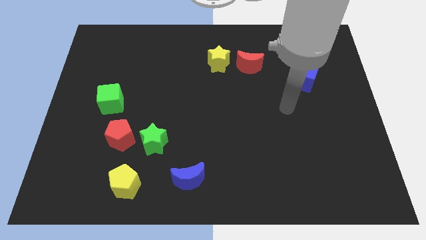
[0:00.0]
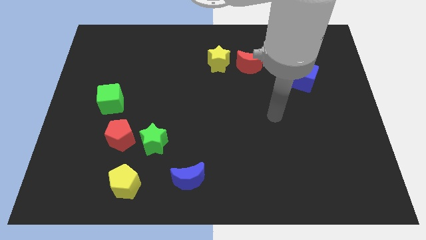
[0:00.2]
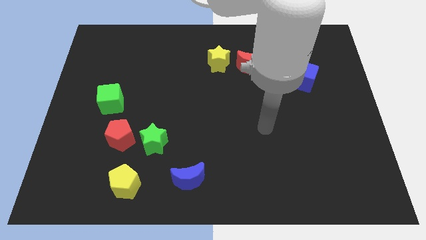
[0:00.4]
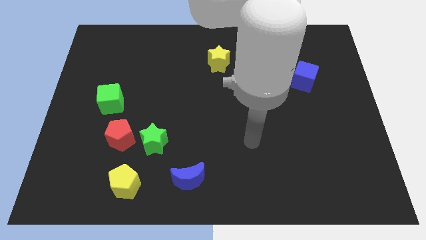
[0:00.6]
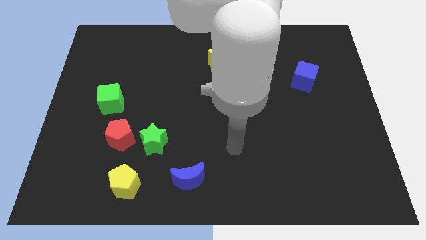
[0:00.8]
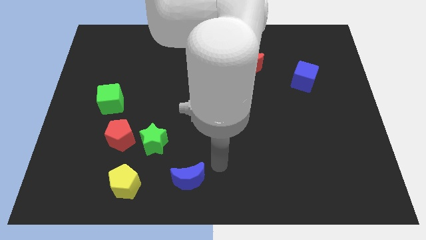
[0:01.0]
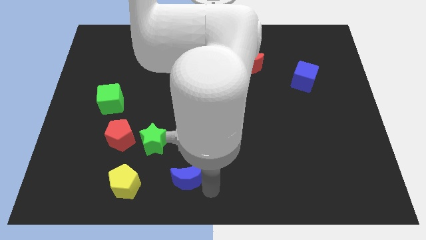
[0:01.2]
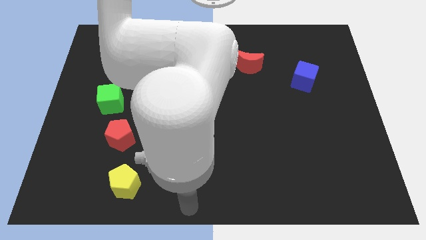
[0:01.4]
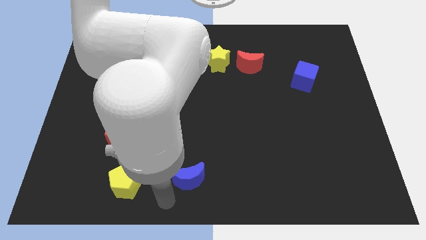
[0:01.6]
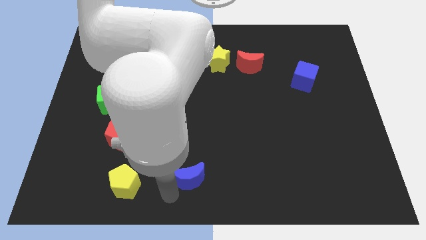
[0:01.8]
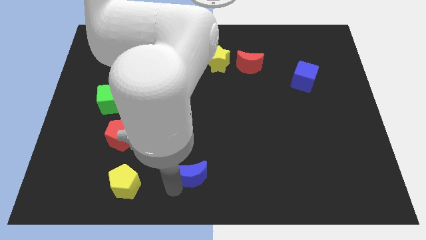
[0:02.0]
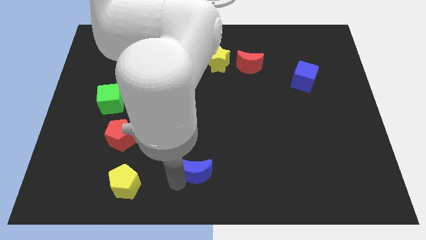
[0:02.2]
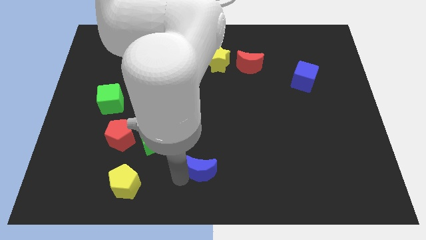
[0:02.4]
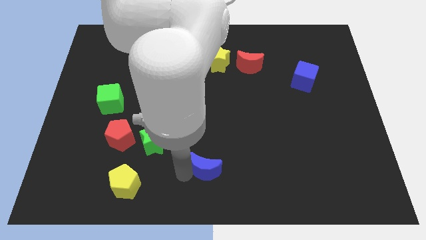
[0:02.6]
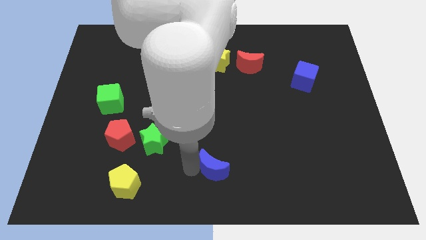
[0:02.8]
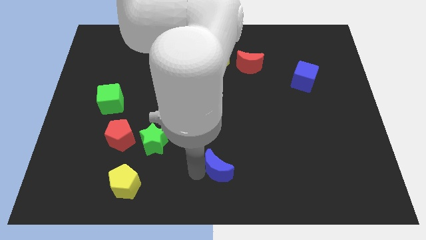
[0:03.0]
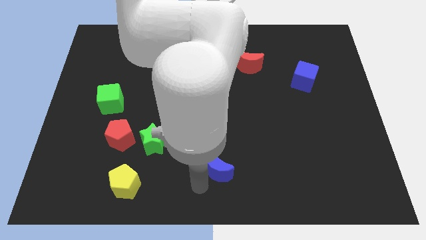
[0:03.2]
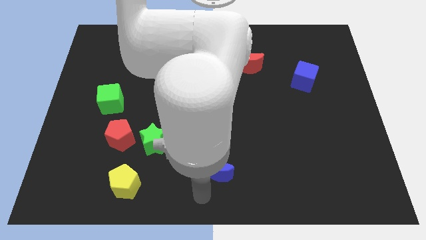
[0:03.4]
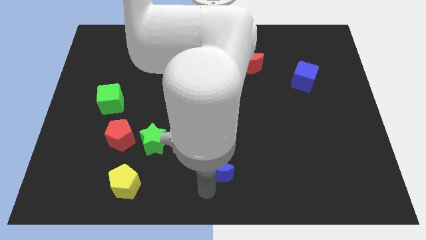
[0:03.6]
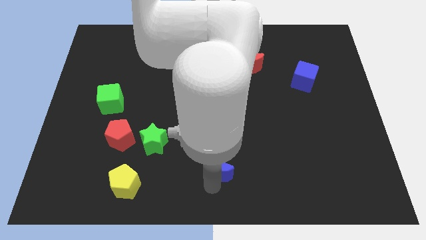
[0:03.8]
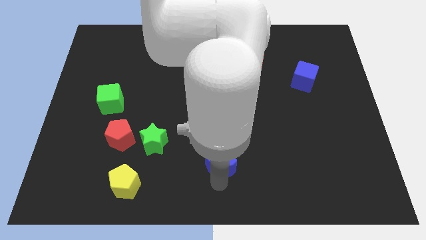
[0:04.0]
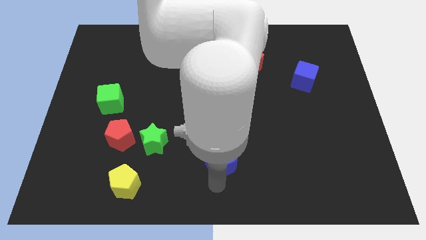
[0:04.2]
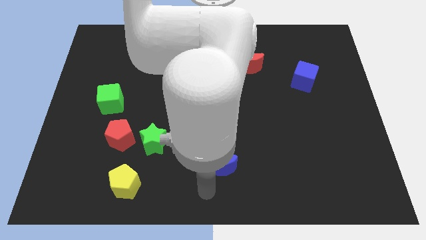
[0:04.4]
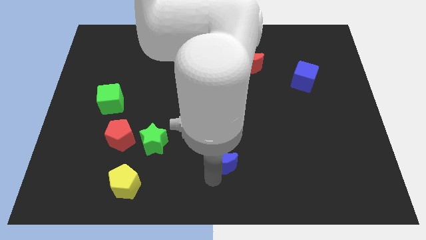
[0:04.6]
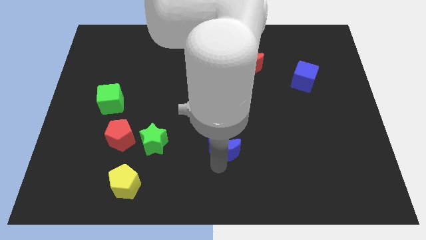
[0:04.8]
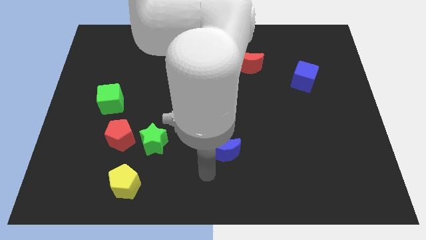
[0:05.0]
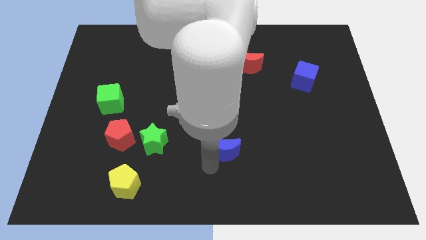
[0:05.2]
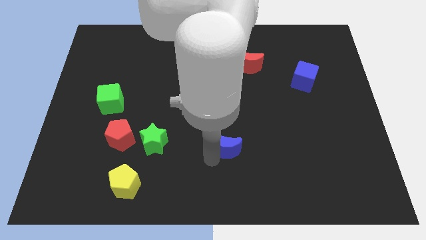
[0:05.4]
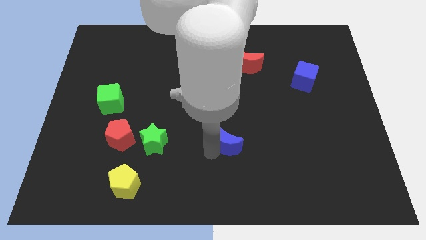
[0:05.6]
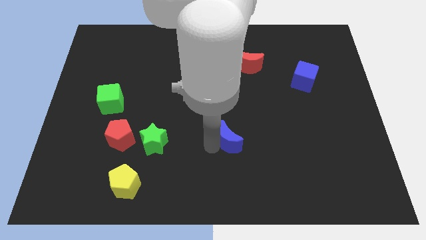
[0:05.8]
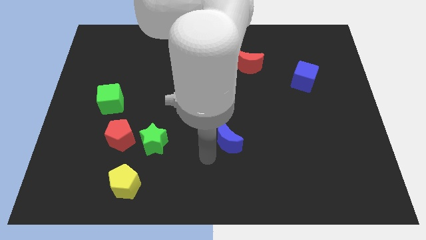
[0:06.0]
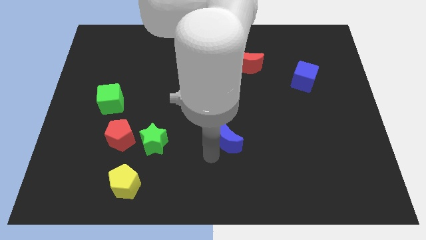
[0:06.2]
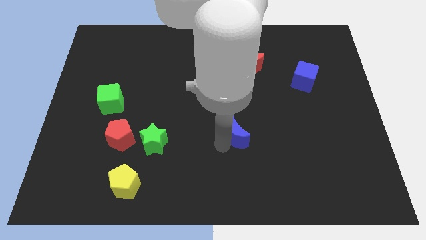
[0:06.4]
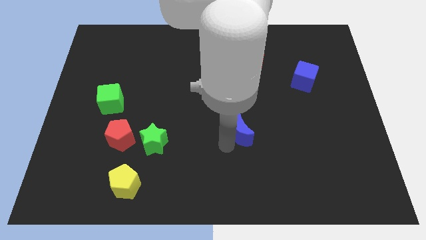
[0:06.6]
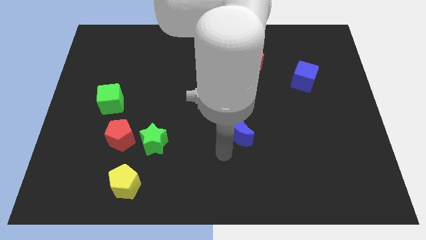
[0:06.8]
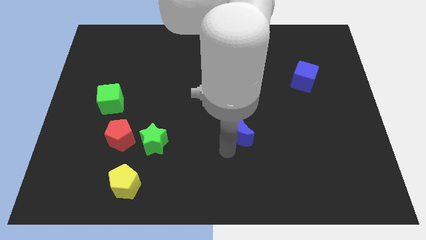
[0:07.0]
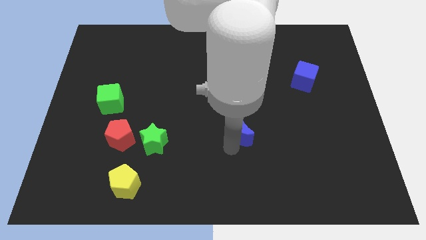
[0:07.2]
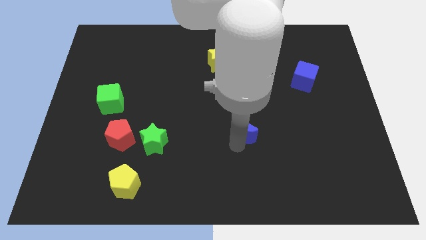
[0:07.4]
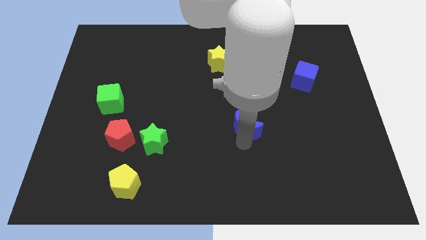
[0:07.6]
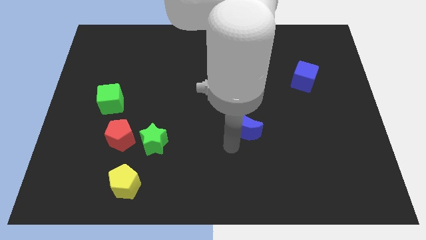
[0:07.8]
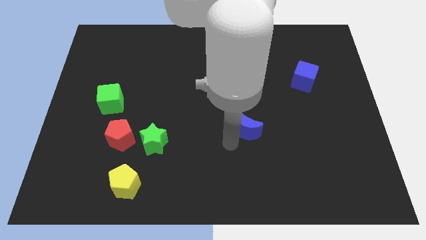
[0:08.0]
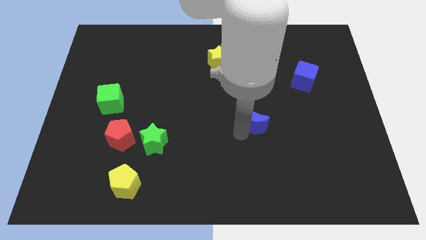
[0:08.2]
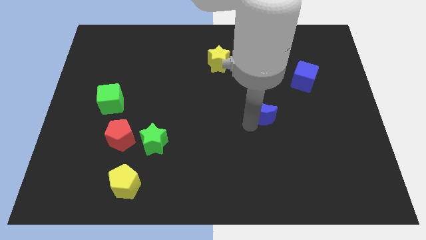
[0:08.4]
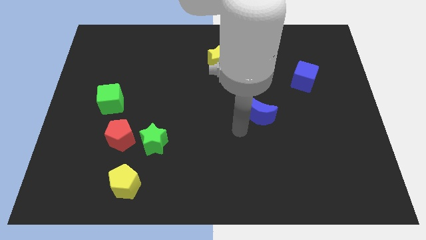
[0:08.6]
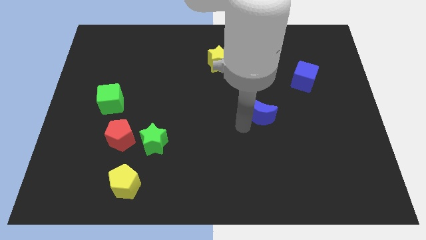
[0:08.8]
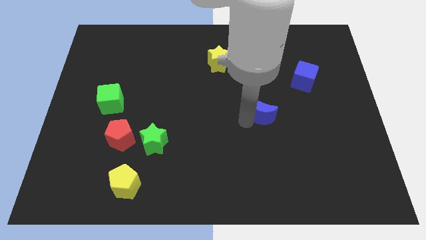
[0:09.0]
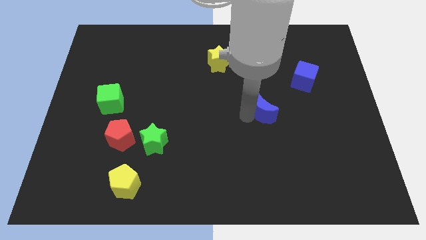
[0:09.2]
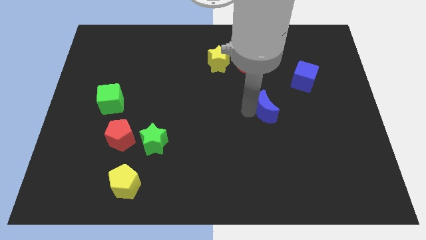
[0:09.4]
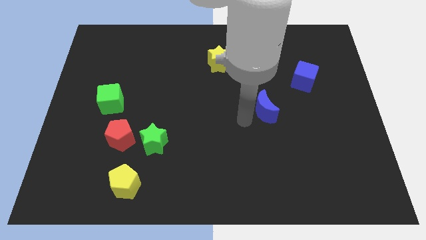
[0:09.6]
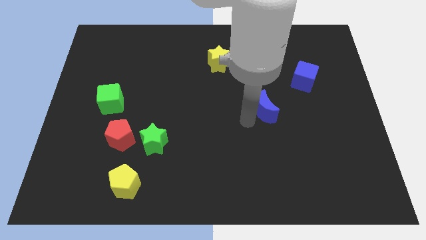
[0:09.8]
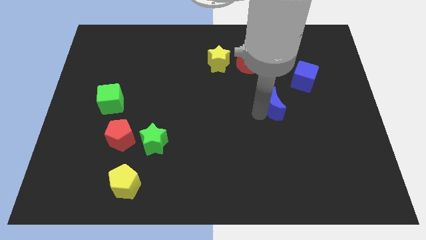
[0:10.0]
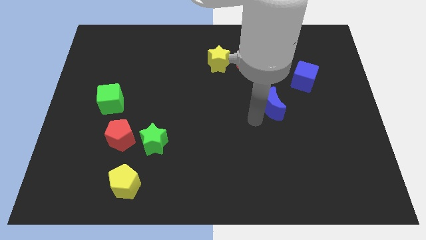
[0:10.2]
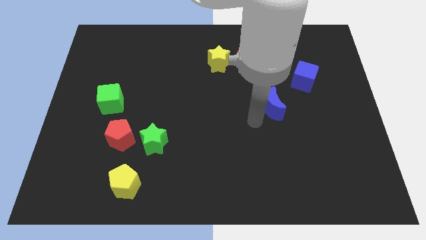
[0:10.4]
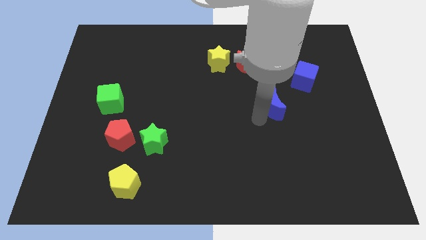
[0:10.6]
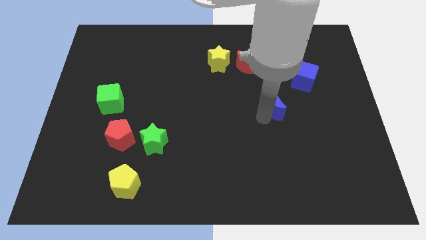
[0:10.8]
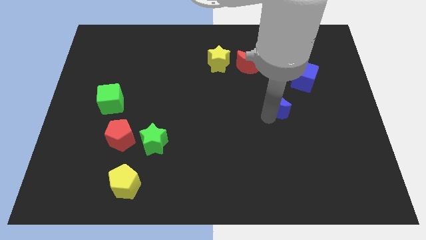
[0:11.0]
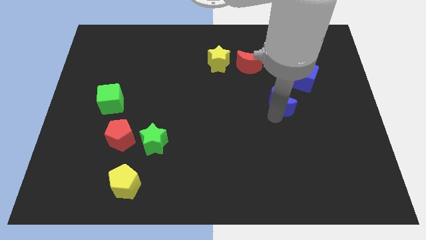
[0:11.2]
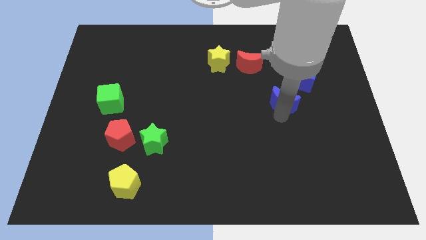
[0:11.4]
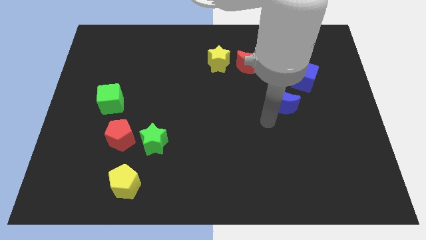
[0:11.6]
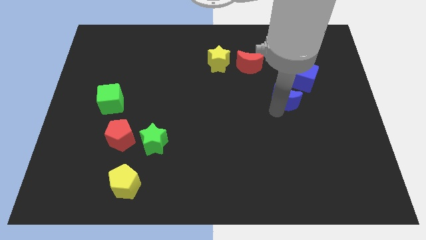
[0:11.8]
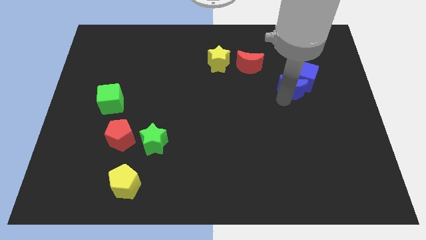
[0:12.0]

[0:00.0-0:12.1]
slide the blue moon towards the blue cube

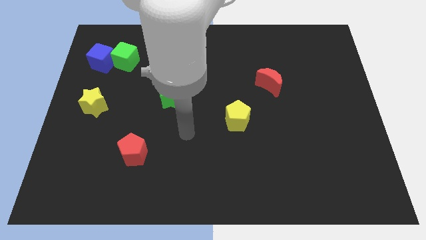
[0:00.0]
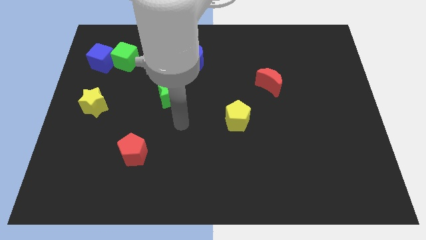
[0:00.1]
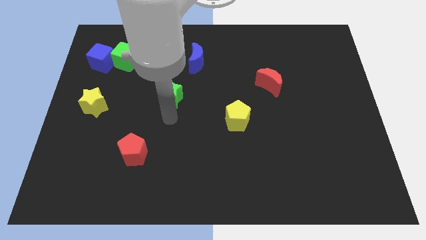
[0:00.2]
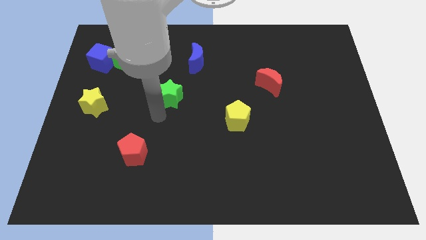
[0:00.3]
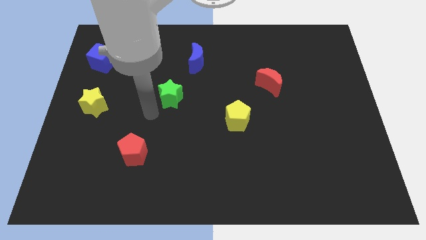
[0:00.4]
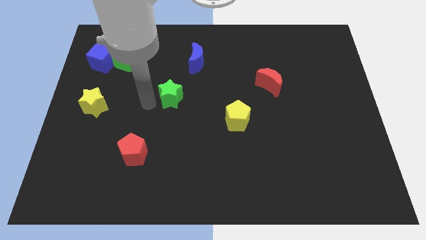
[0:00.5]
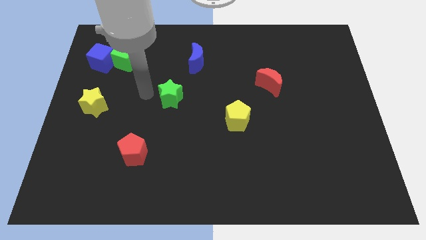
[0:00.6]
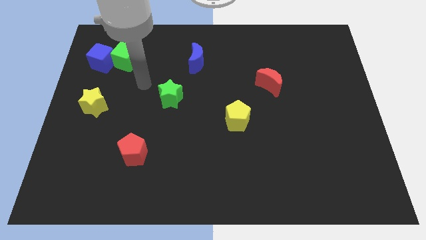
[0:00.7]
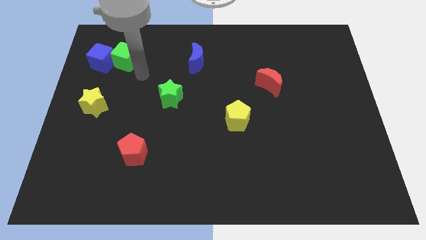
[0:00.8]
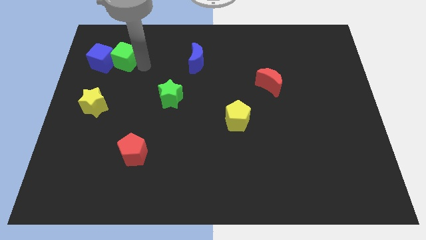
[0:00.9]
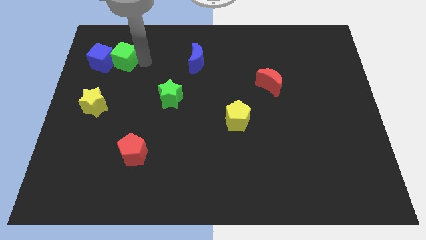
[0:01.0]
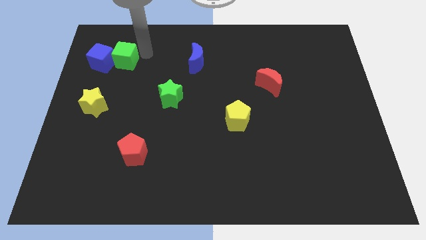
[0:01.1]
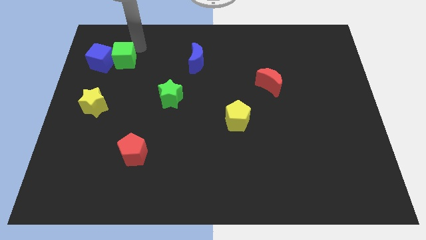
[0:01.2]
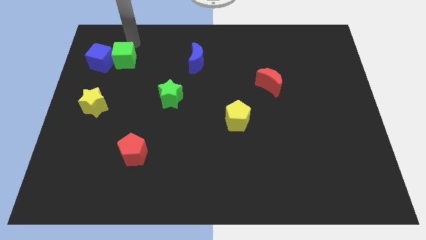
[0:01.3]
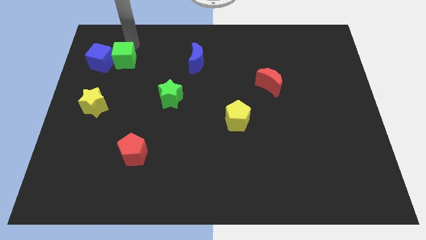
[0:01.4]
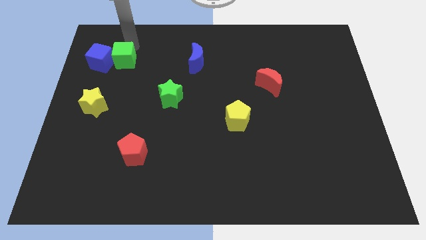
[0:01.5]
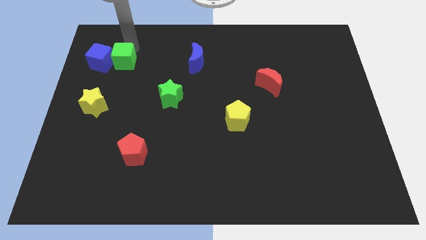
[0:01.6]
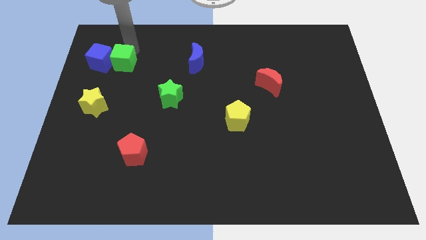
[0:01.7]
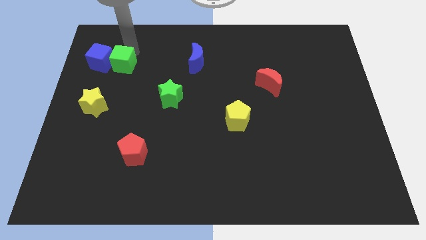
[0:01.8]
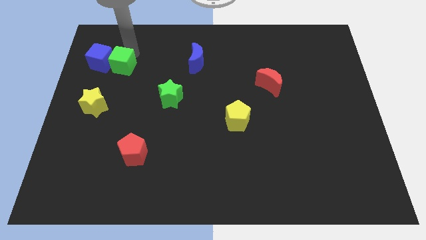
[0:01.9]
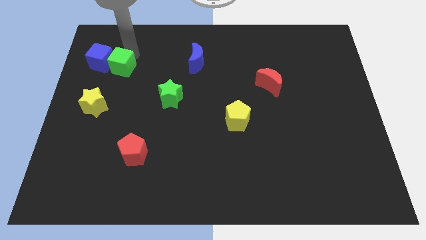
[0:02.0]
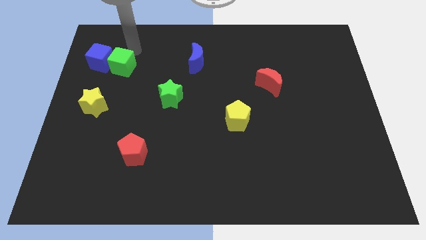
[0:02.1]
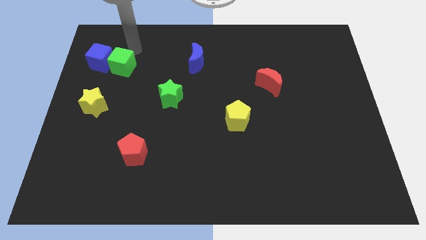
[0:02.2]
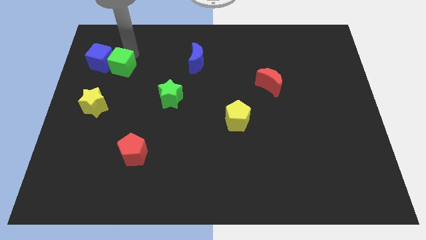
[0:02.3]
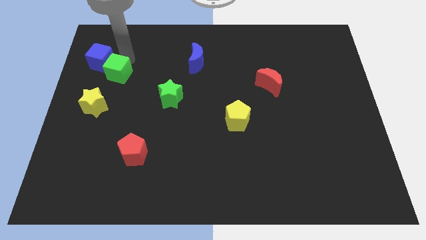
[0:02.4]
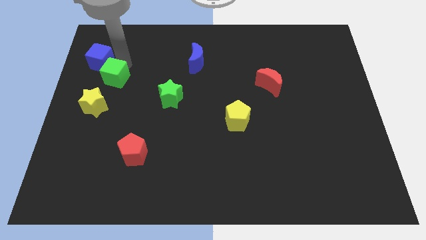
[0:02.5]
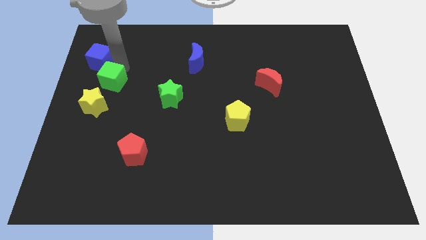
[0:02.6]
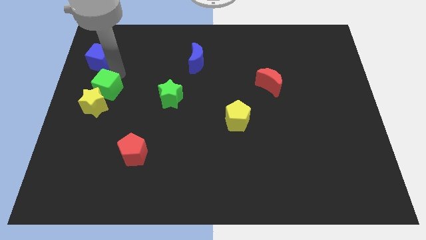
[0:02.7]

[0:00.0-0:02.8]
slide the green cube close to the yellow star
